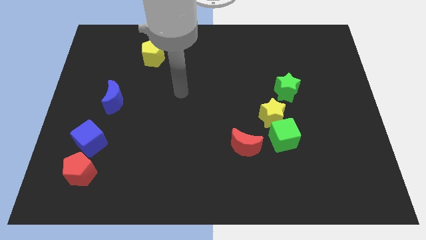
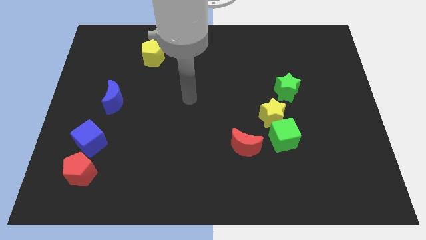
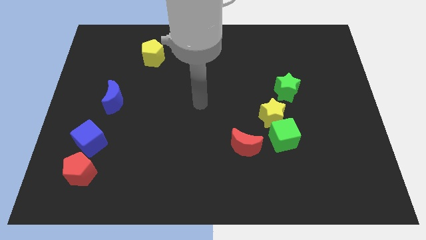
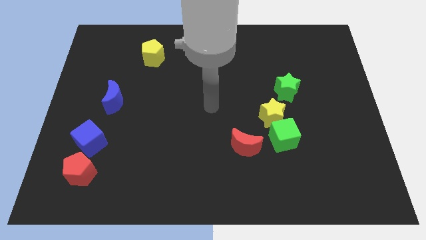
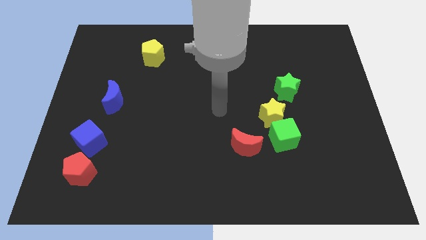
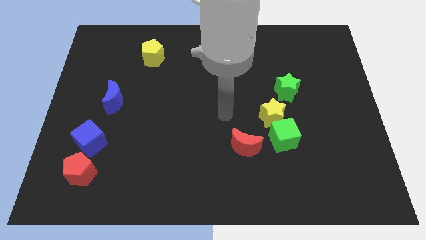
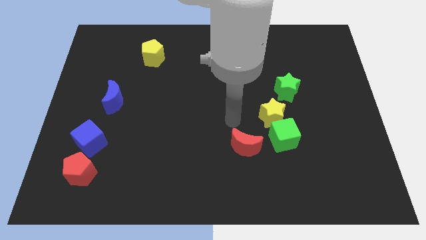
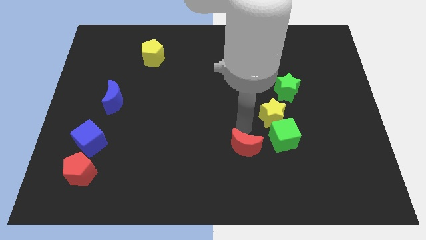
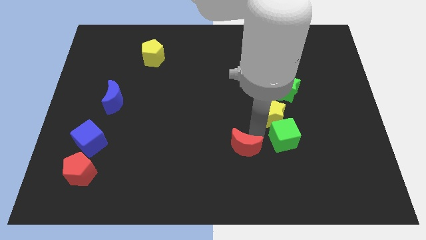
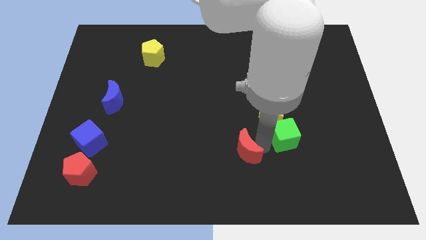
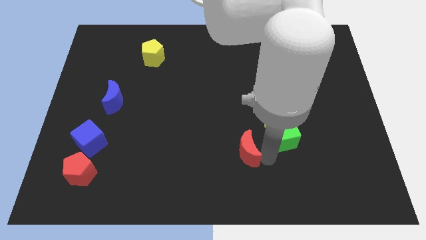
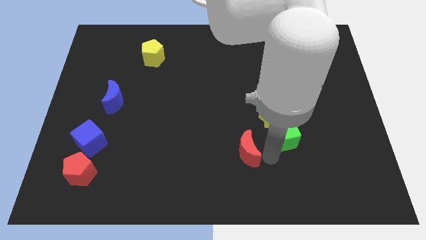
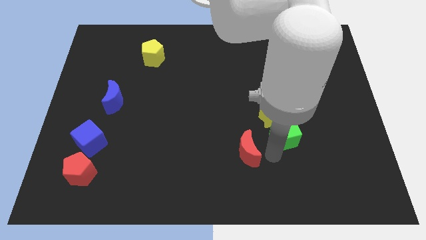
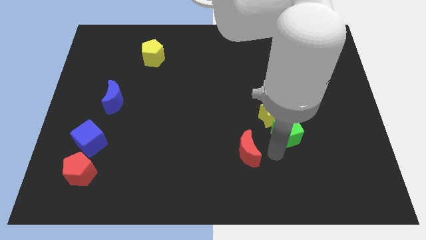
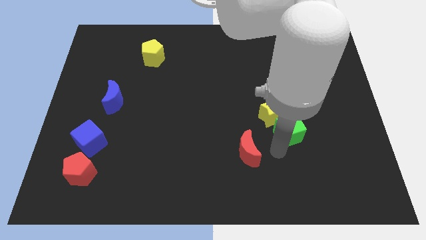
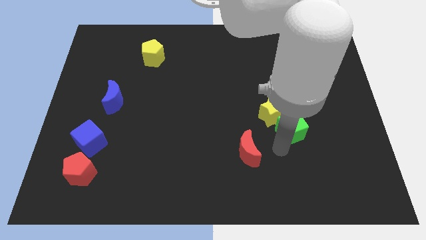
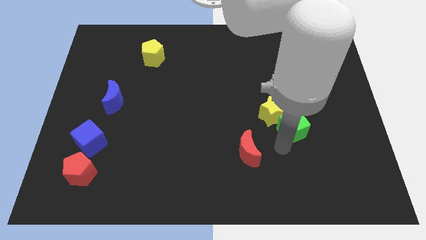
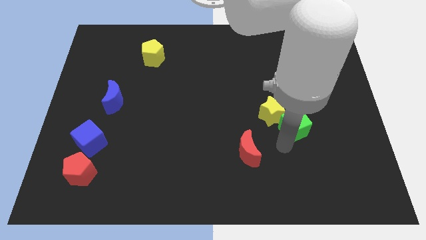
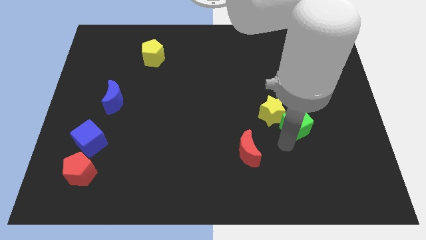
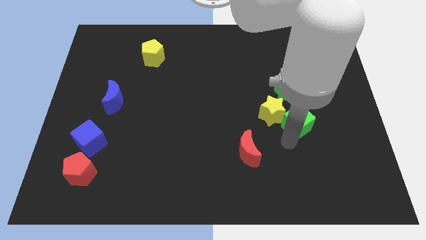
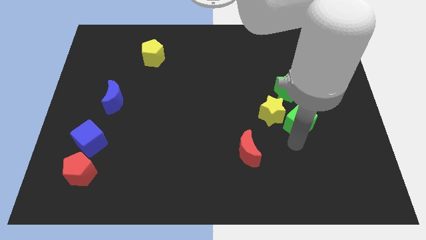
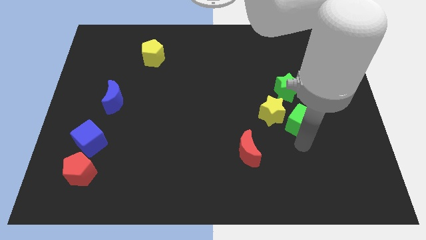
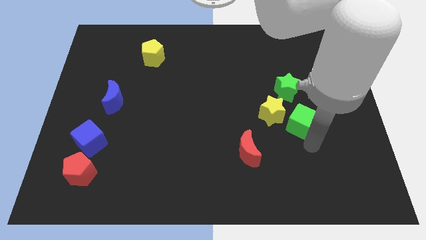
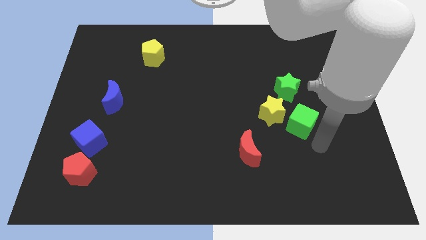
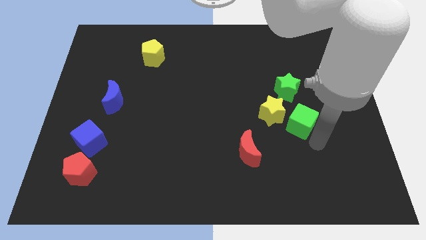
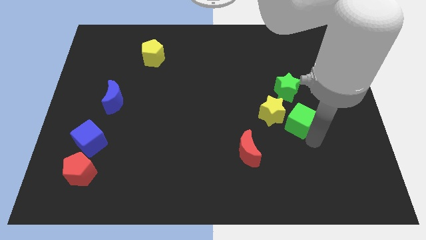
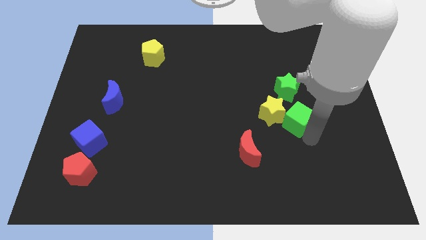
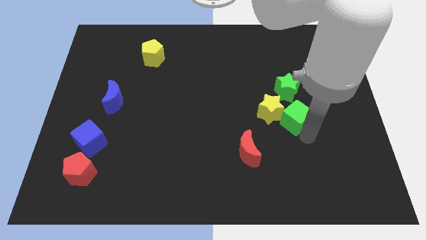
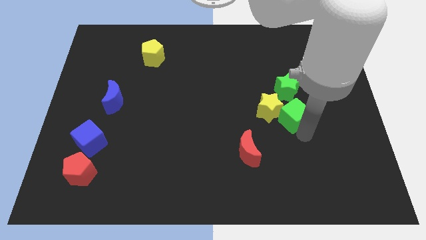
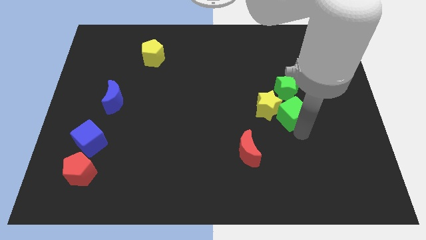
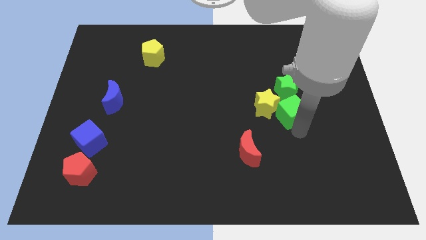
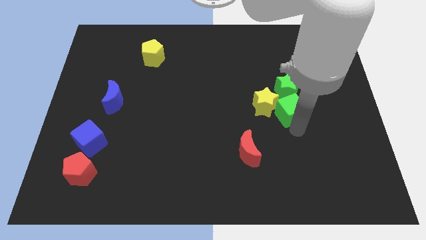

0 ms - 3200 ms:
slightly slide the green cube upwards

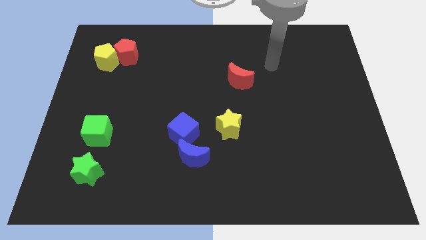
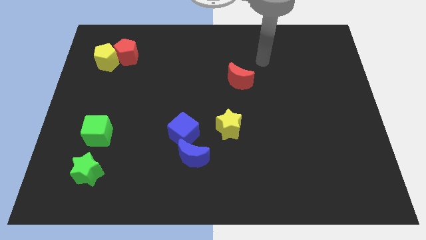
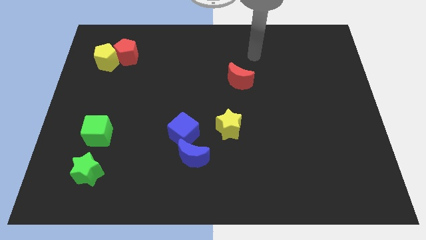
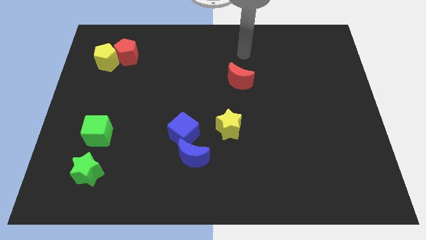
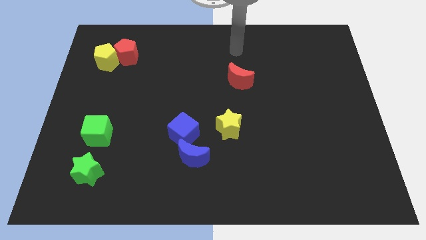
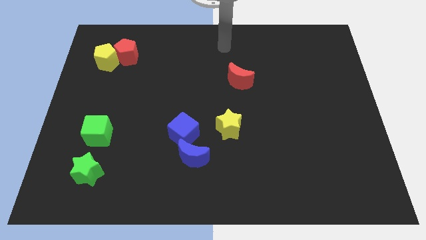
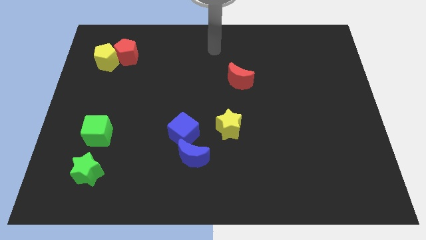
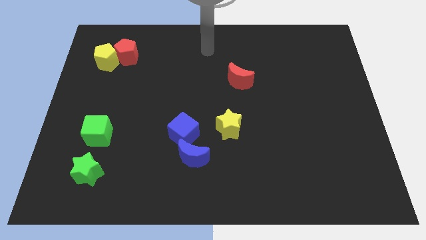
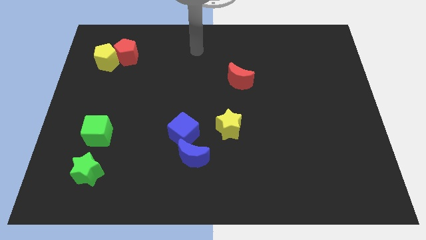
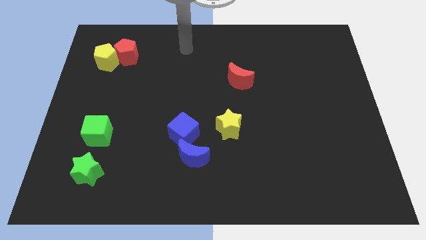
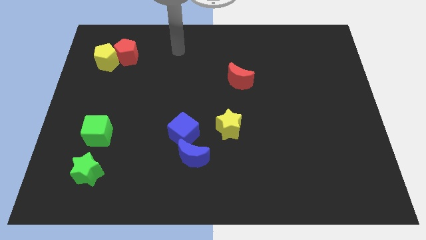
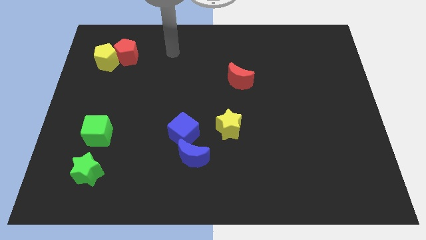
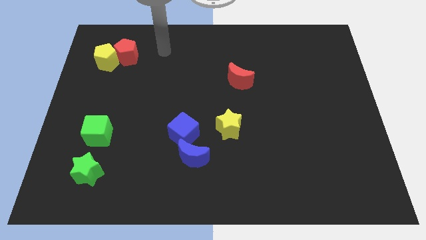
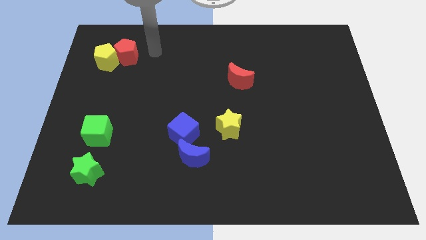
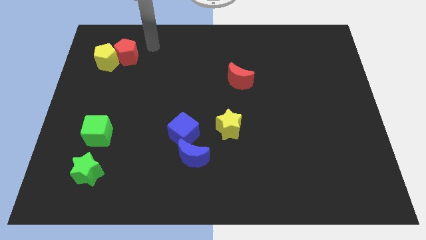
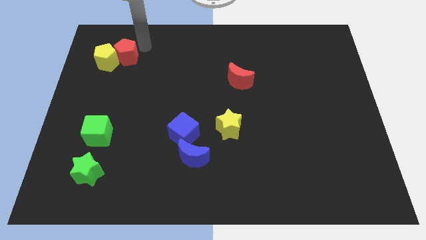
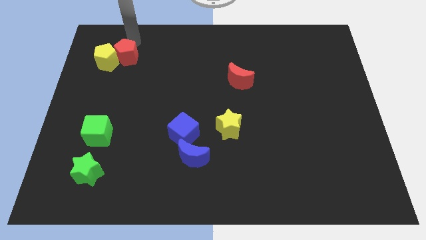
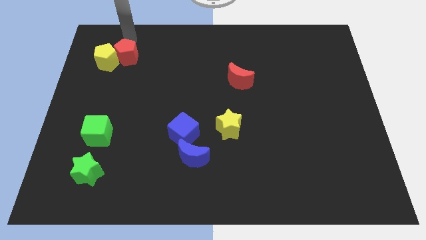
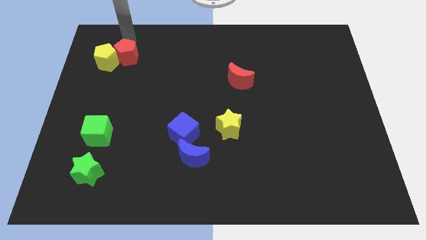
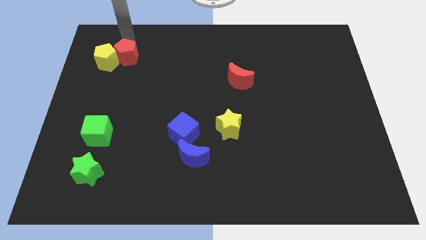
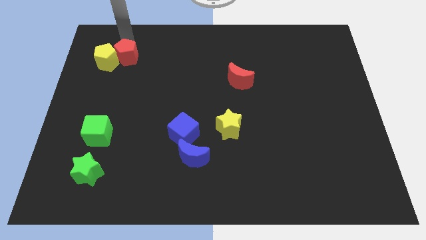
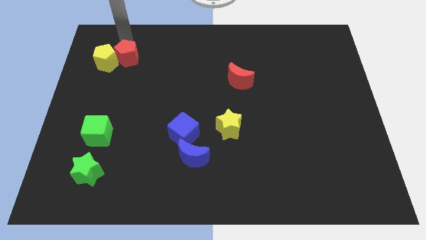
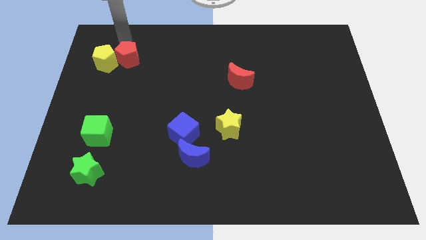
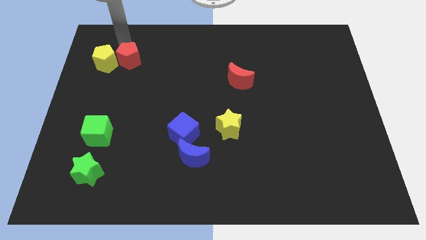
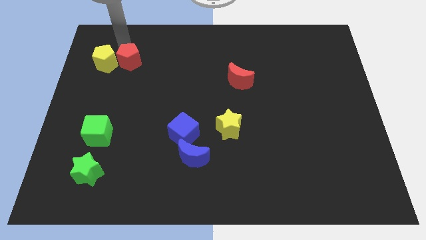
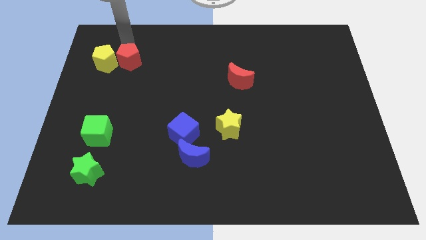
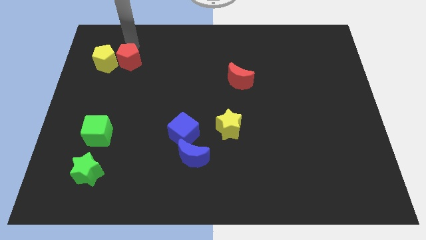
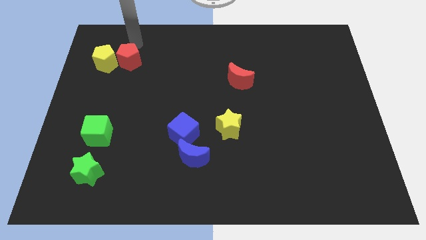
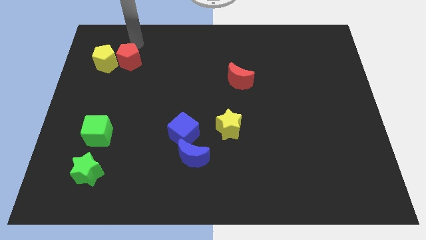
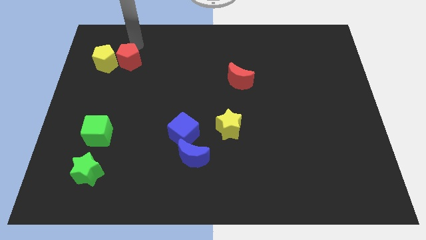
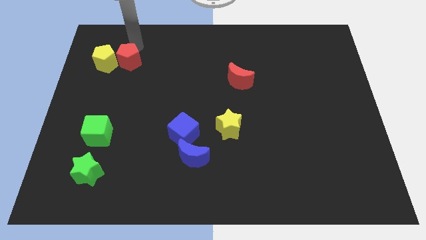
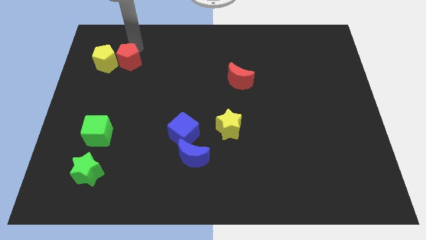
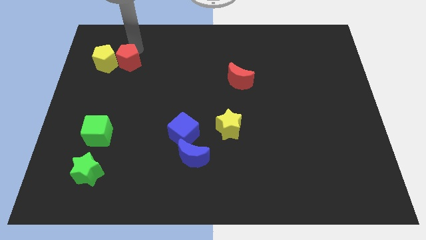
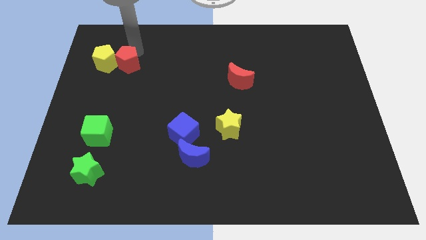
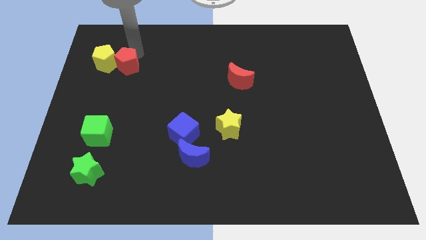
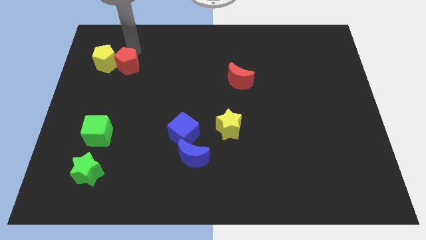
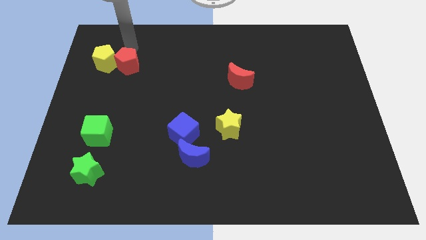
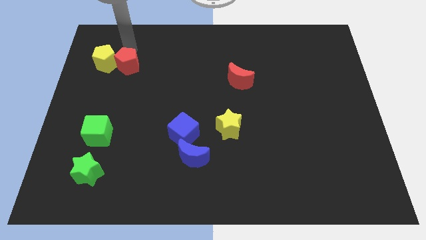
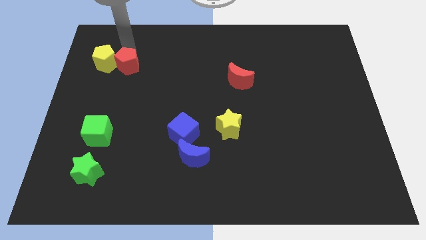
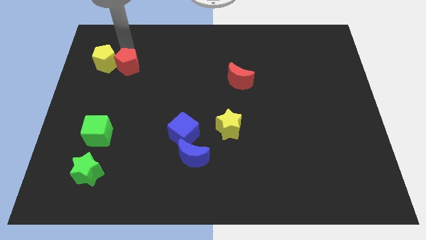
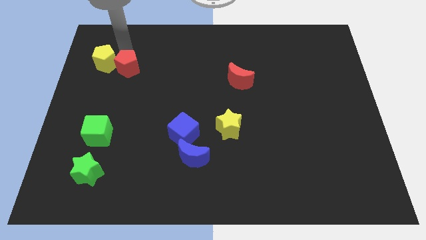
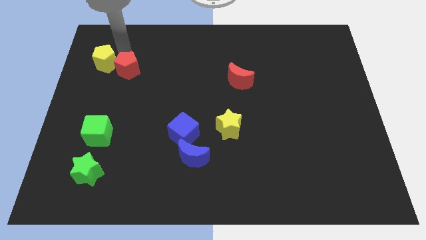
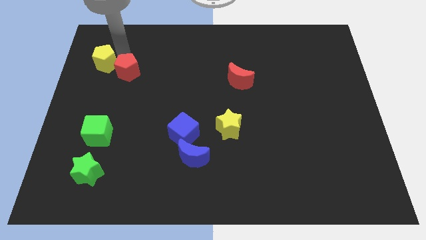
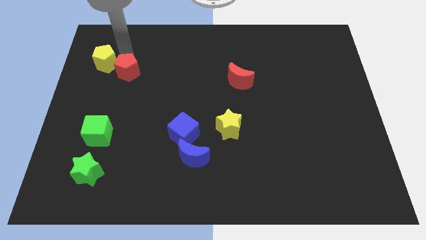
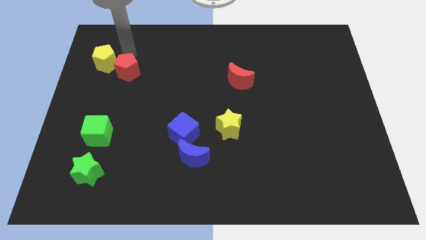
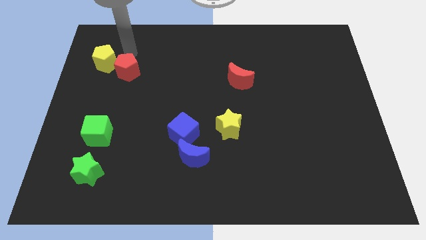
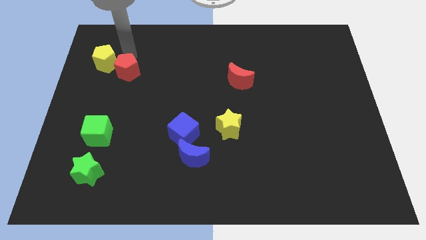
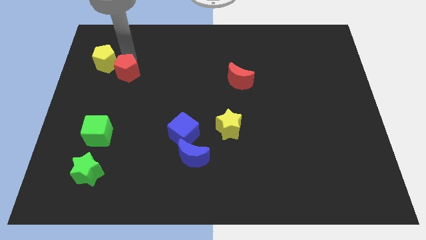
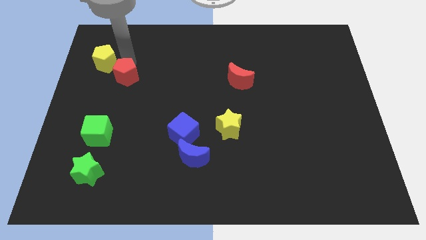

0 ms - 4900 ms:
slide the red pentagon down slightly
